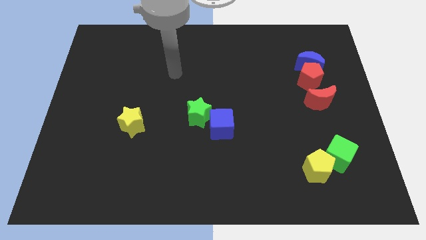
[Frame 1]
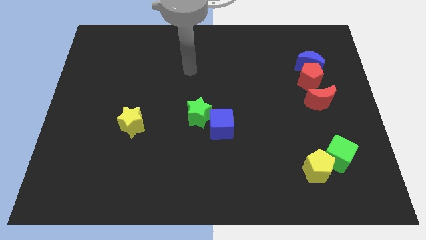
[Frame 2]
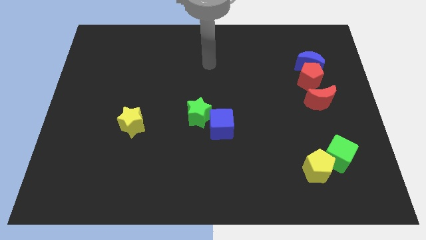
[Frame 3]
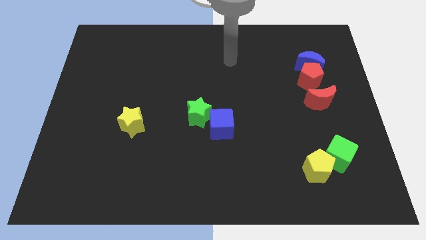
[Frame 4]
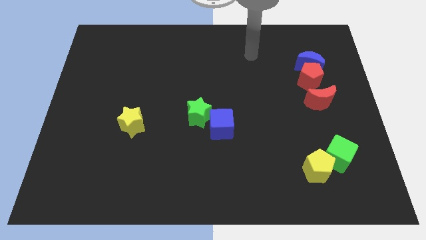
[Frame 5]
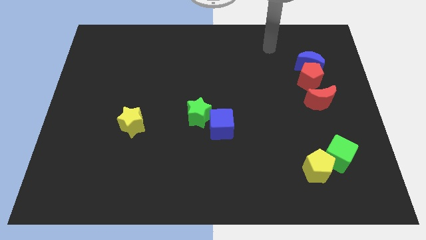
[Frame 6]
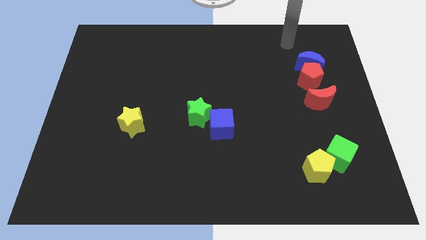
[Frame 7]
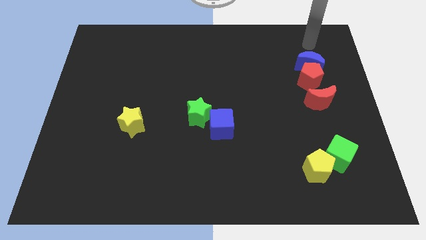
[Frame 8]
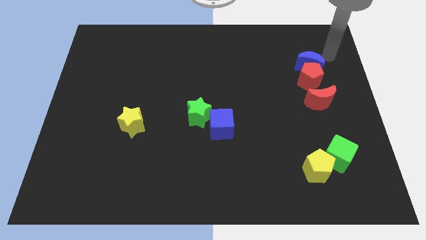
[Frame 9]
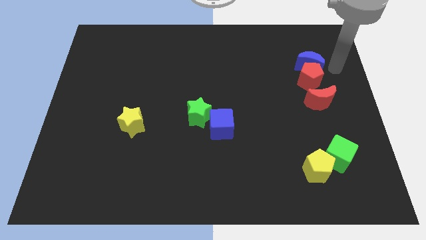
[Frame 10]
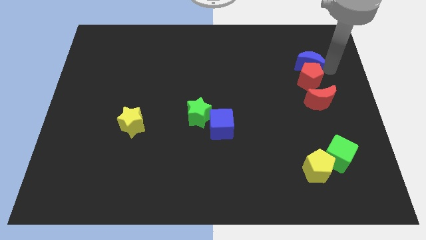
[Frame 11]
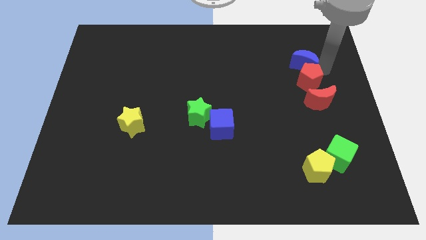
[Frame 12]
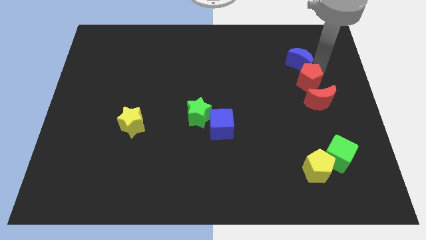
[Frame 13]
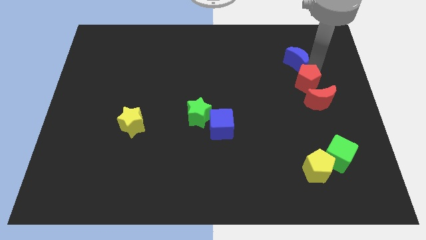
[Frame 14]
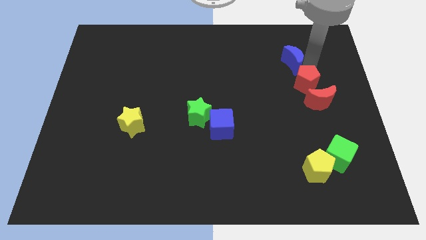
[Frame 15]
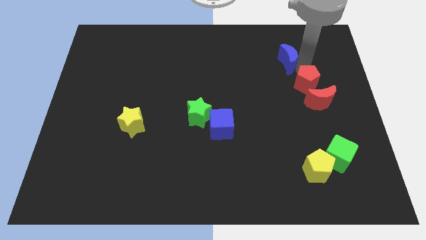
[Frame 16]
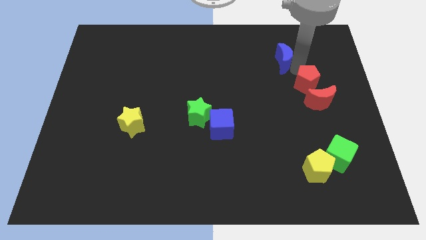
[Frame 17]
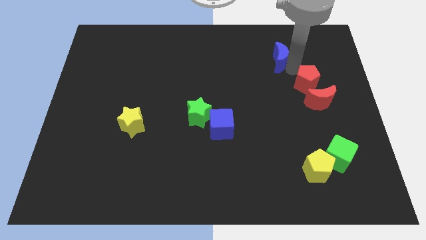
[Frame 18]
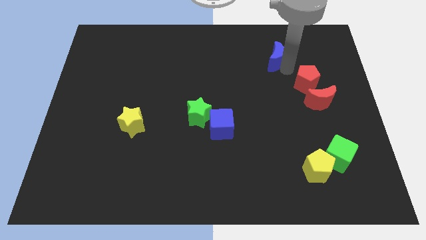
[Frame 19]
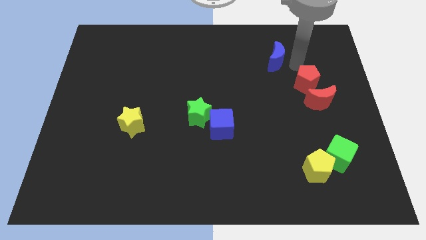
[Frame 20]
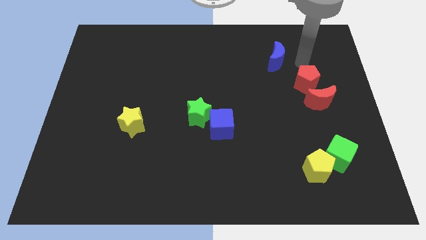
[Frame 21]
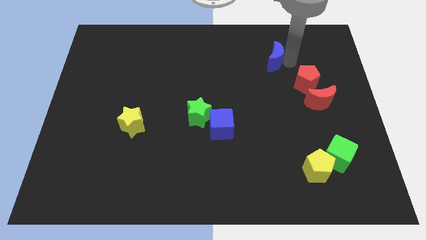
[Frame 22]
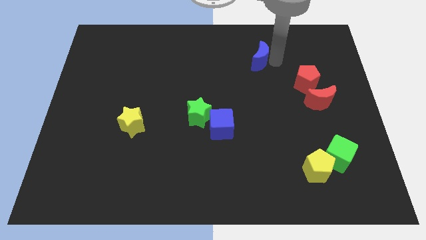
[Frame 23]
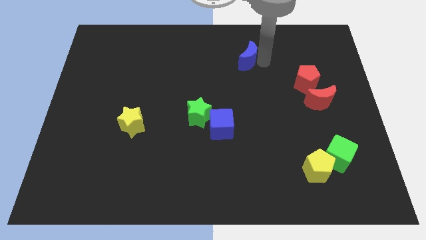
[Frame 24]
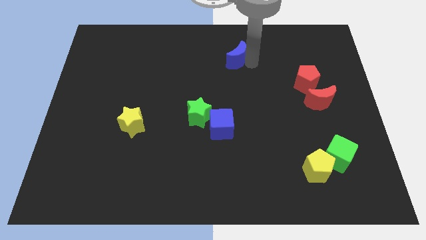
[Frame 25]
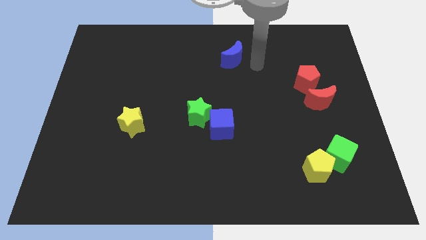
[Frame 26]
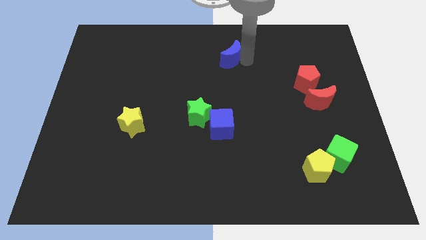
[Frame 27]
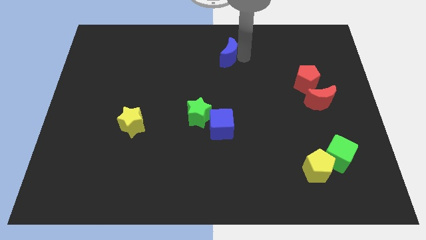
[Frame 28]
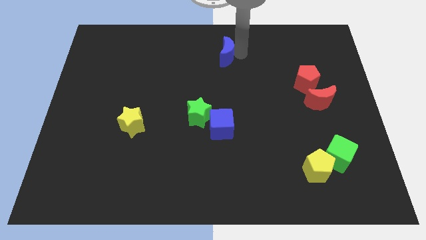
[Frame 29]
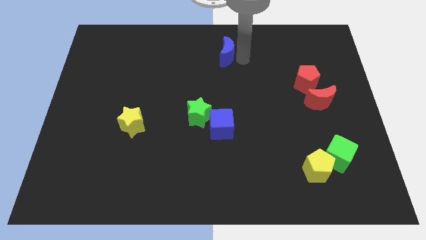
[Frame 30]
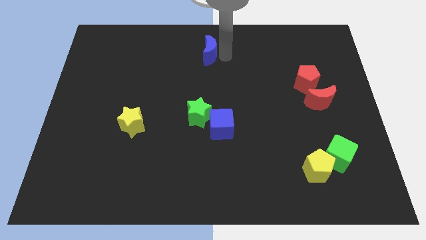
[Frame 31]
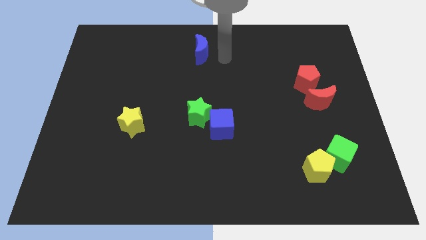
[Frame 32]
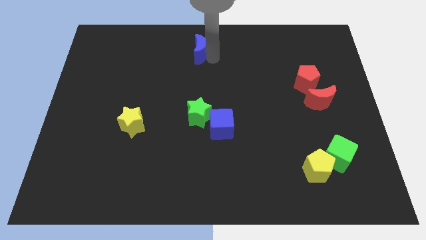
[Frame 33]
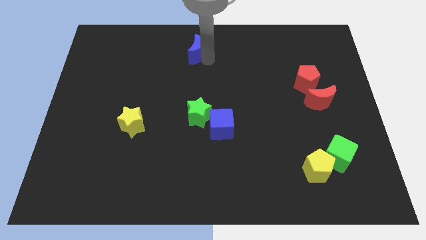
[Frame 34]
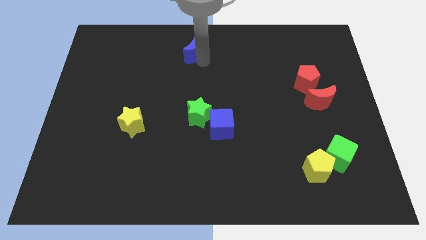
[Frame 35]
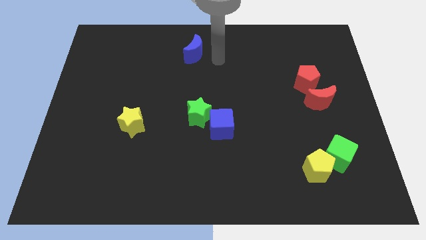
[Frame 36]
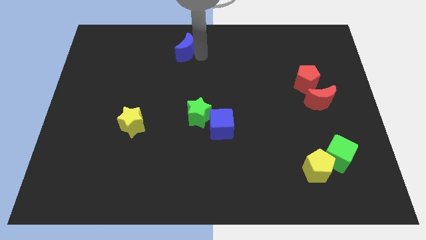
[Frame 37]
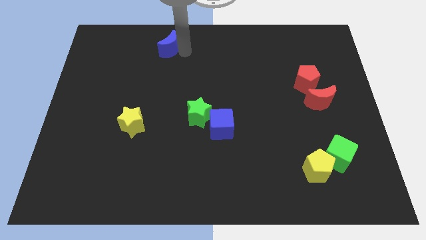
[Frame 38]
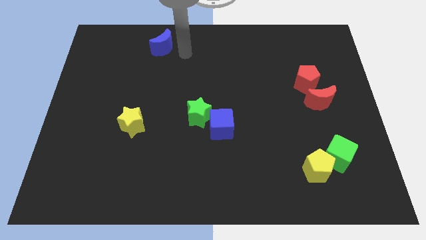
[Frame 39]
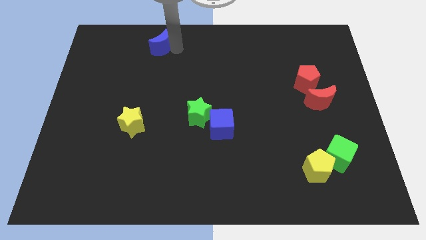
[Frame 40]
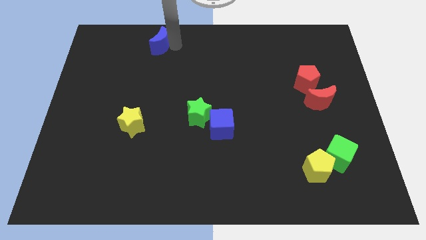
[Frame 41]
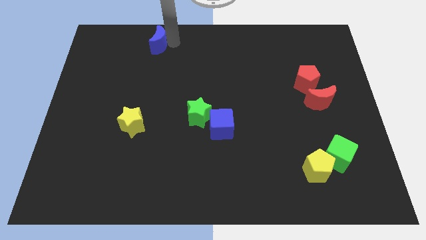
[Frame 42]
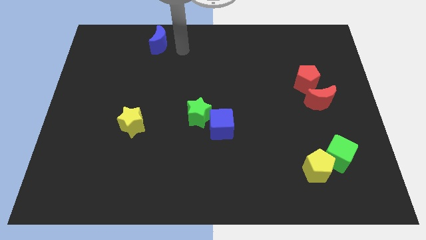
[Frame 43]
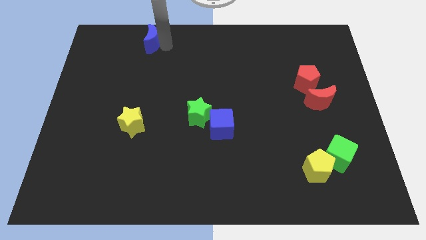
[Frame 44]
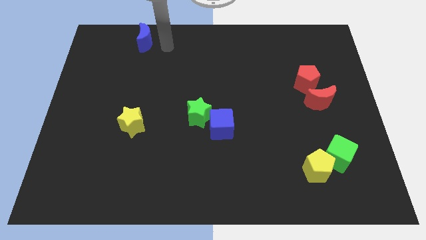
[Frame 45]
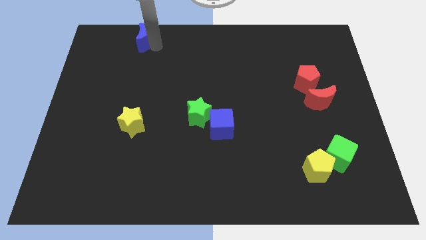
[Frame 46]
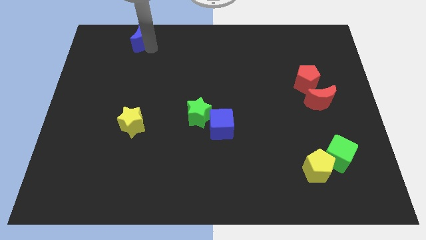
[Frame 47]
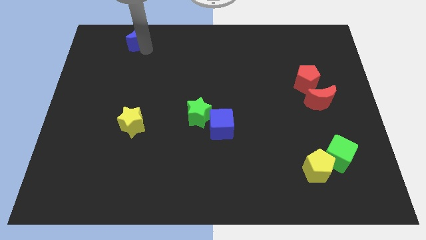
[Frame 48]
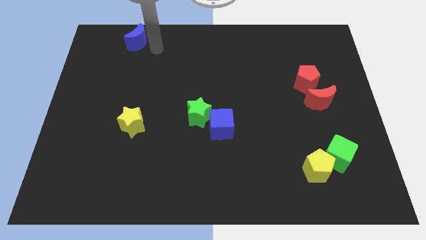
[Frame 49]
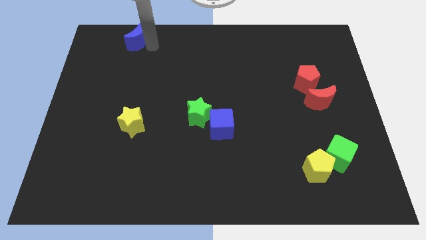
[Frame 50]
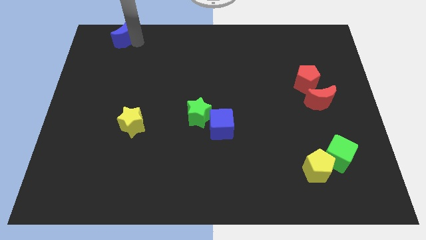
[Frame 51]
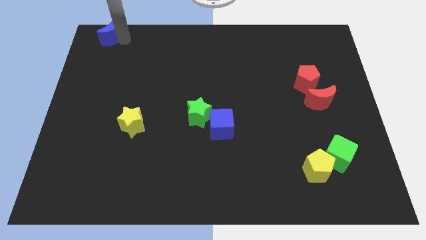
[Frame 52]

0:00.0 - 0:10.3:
put the blue moon to the top left
